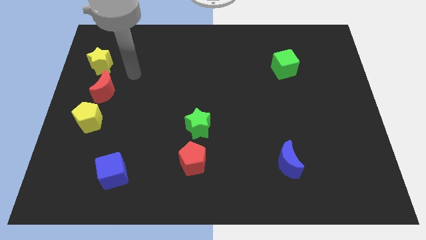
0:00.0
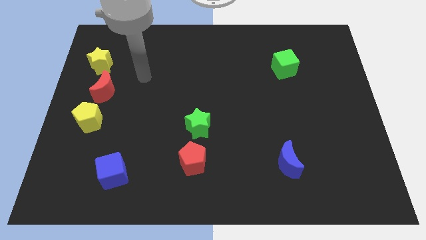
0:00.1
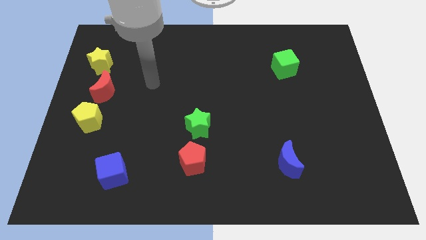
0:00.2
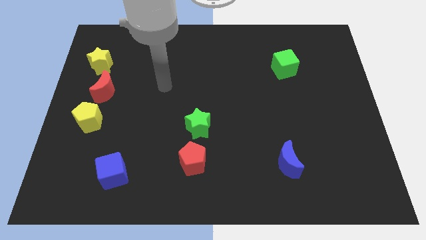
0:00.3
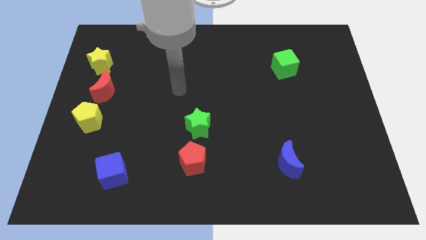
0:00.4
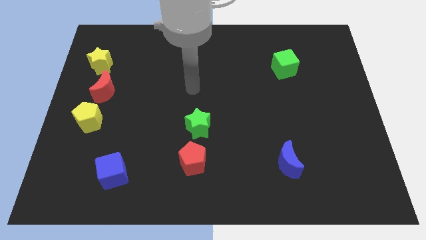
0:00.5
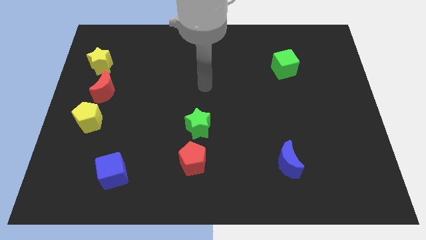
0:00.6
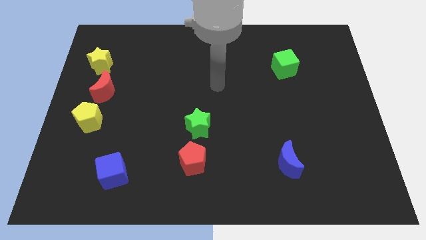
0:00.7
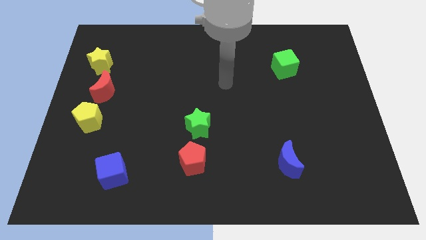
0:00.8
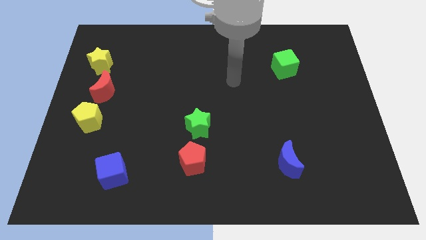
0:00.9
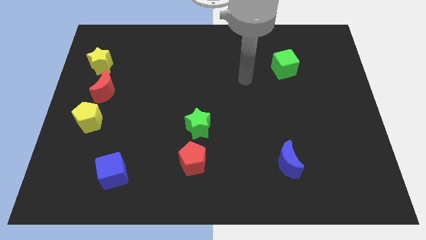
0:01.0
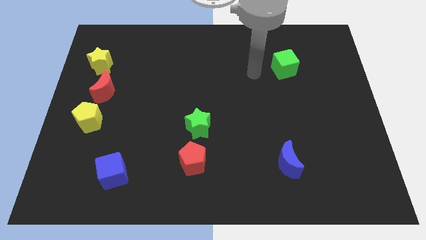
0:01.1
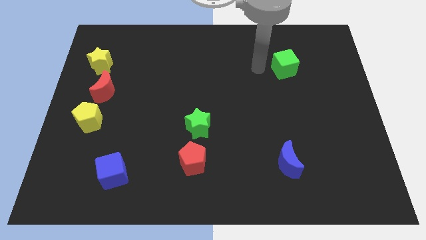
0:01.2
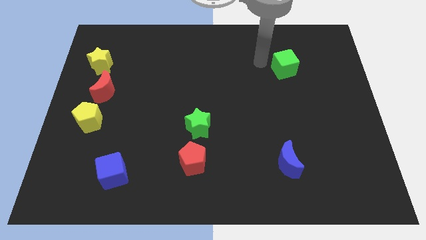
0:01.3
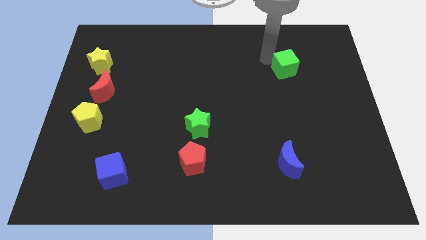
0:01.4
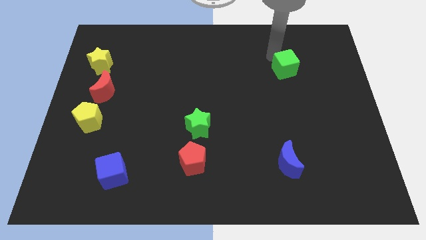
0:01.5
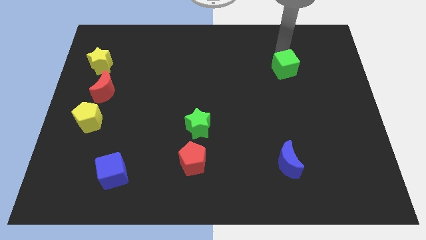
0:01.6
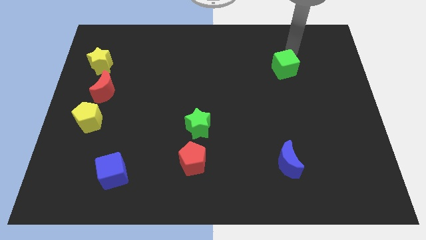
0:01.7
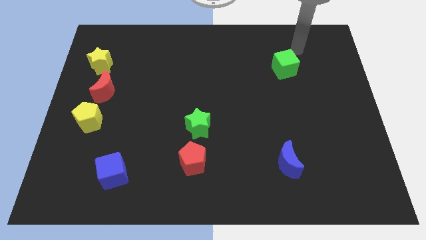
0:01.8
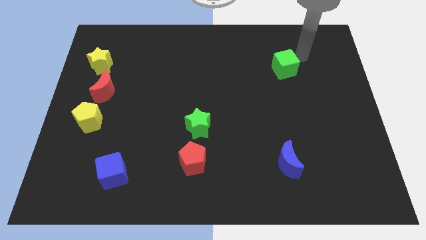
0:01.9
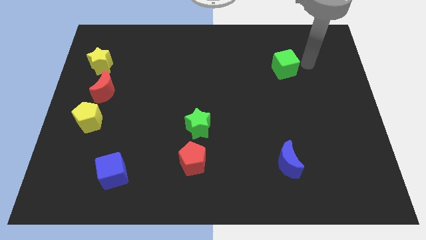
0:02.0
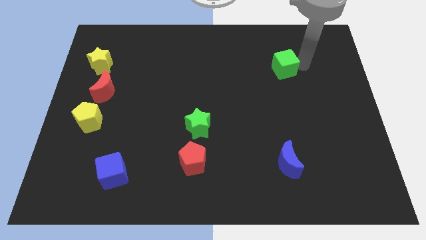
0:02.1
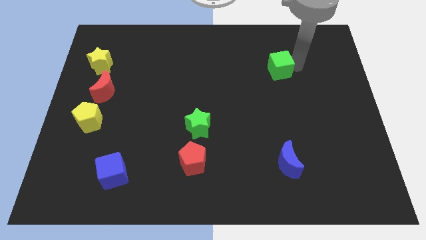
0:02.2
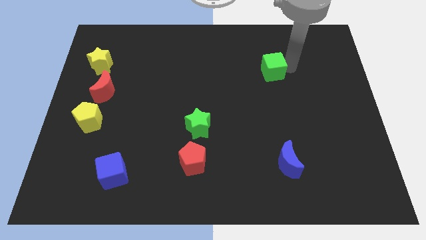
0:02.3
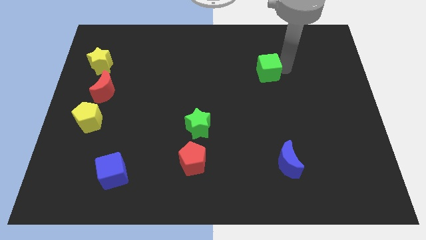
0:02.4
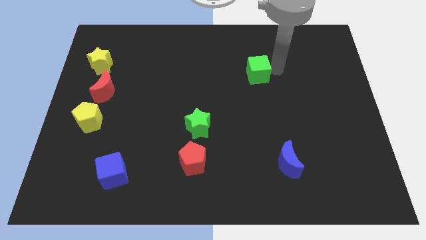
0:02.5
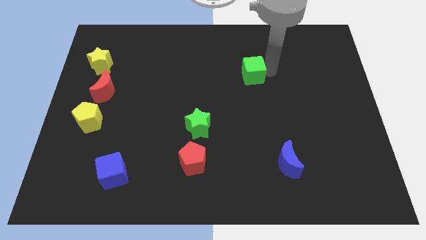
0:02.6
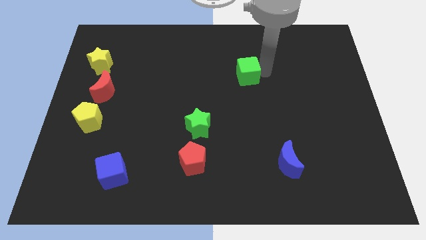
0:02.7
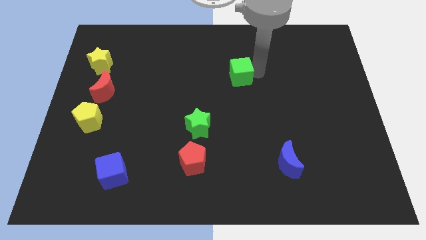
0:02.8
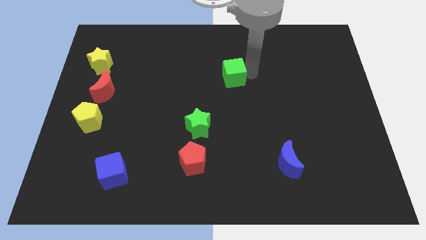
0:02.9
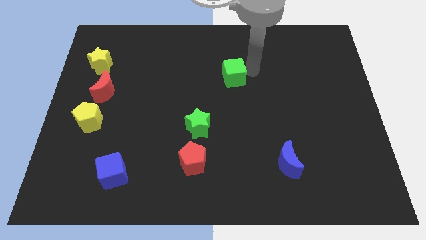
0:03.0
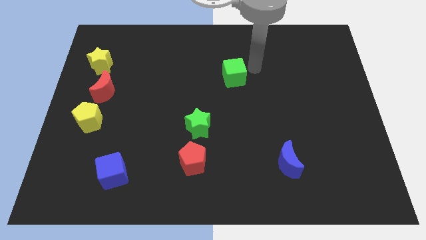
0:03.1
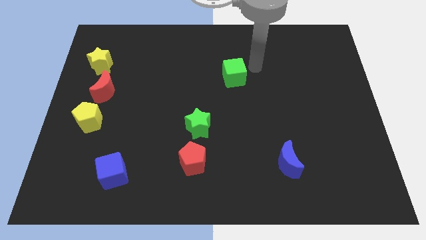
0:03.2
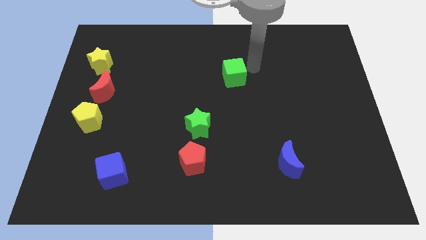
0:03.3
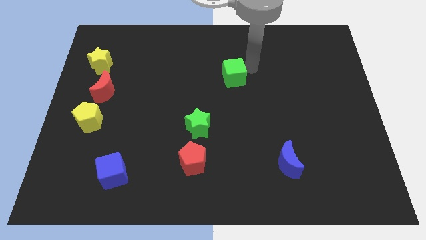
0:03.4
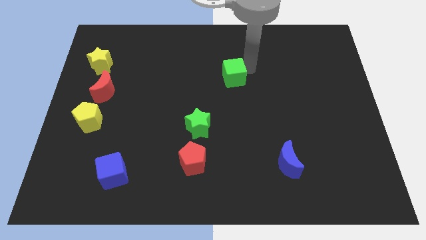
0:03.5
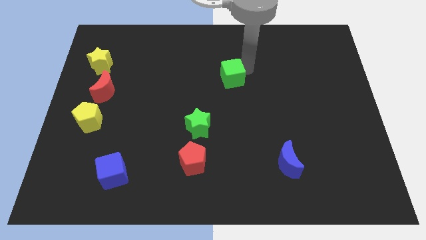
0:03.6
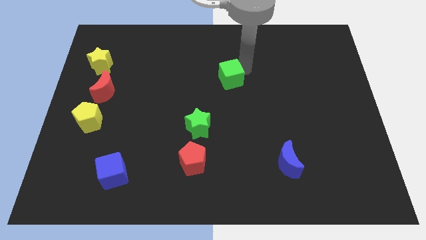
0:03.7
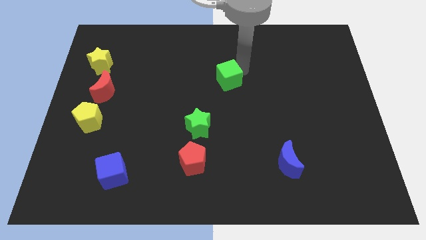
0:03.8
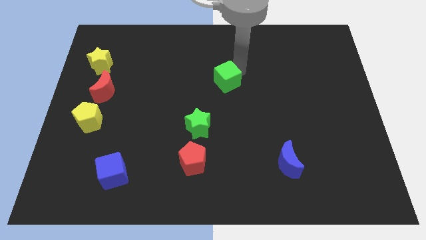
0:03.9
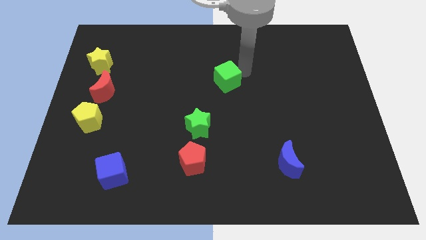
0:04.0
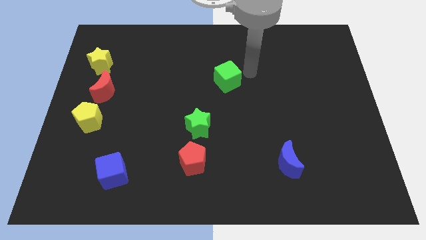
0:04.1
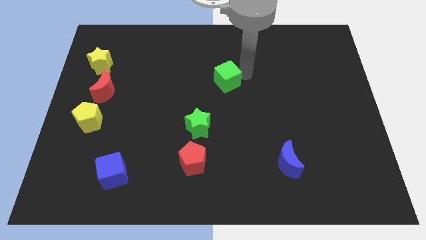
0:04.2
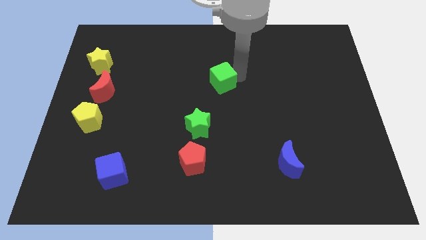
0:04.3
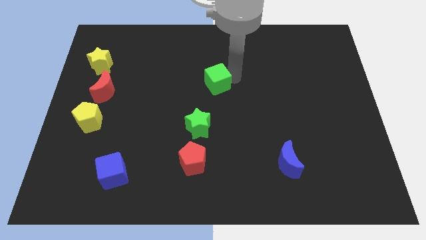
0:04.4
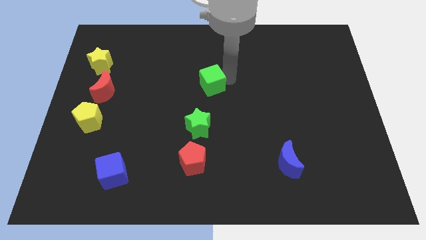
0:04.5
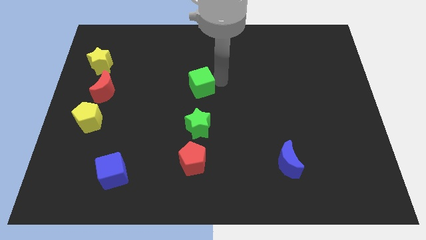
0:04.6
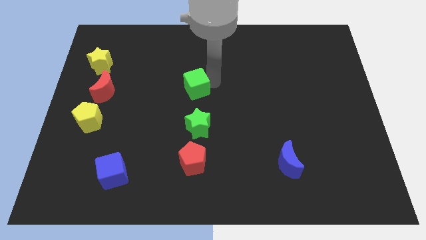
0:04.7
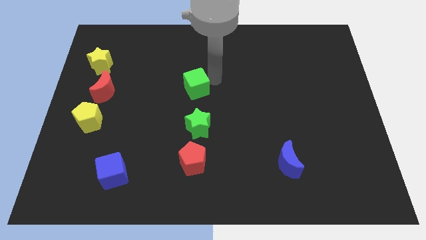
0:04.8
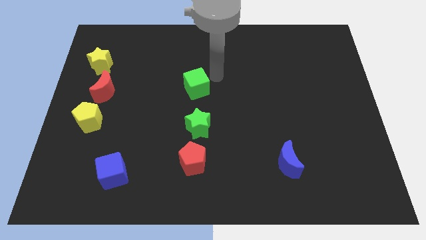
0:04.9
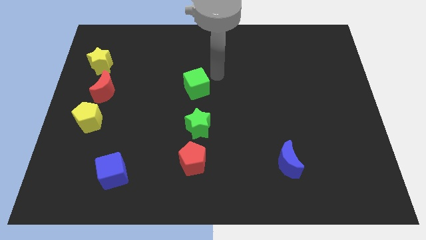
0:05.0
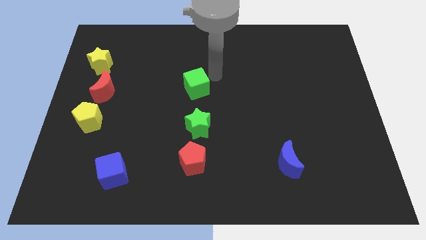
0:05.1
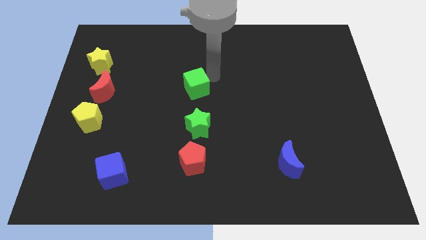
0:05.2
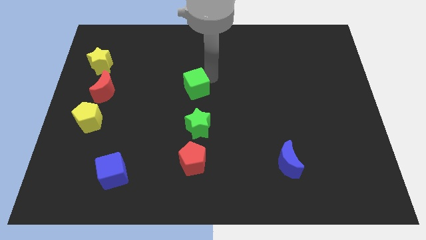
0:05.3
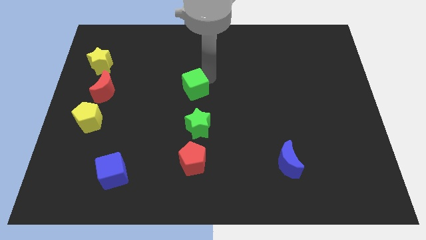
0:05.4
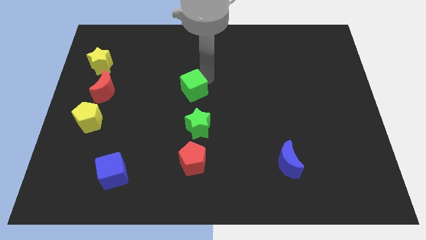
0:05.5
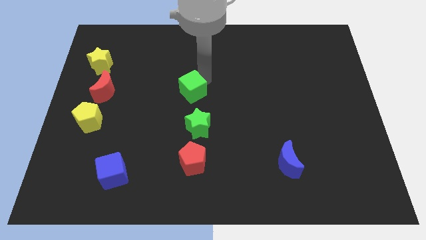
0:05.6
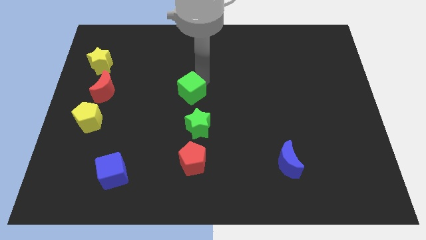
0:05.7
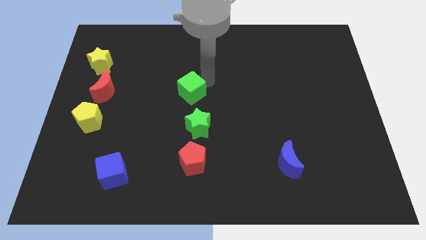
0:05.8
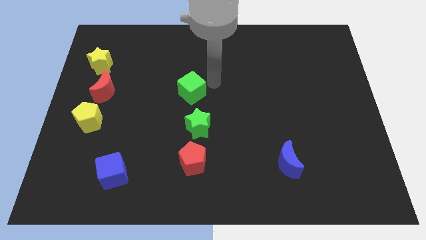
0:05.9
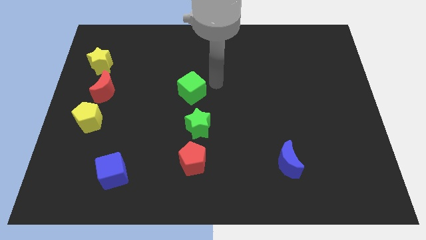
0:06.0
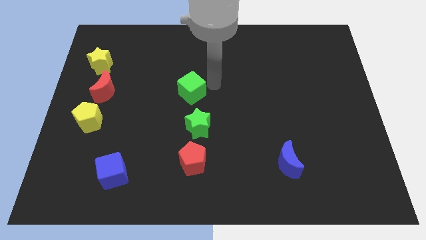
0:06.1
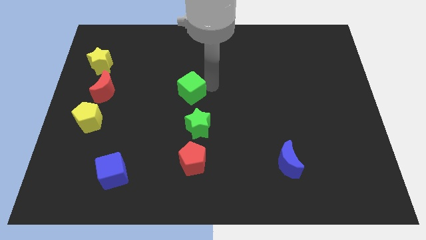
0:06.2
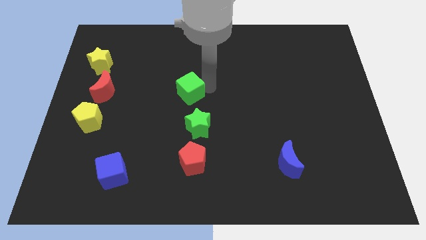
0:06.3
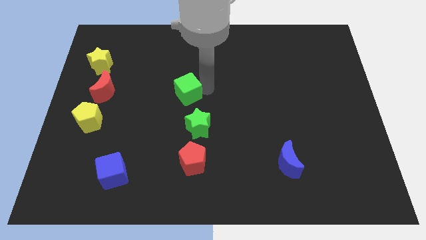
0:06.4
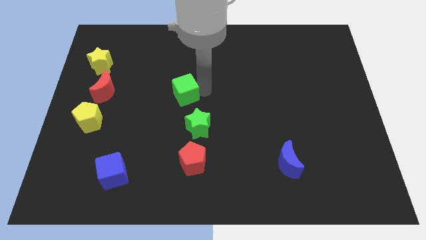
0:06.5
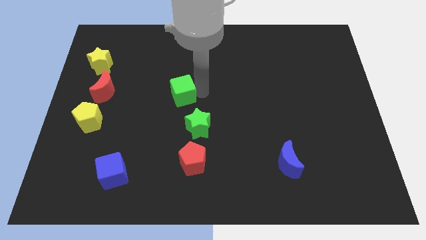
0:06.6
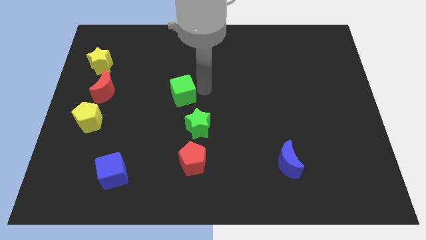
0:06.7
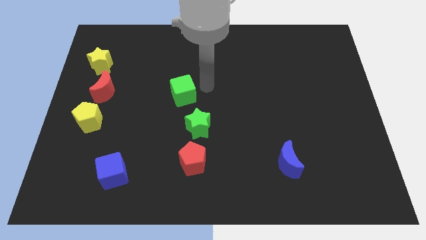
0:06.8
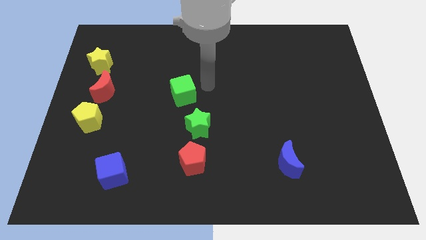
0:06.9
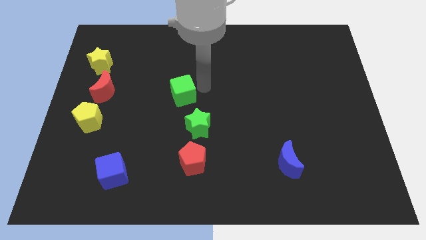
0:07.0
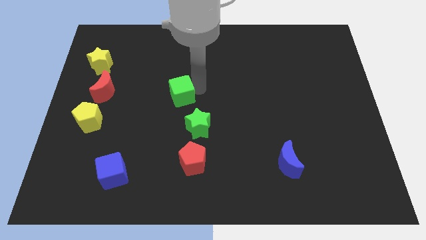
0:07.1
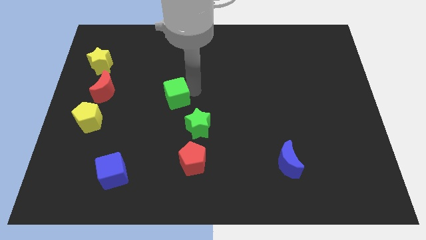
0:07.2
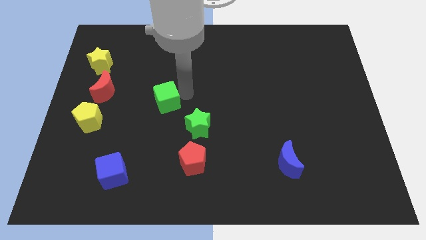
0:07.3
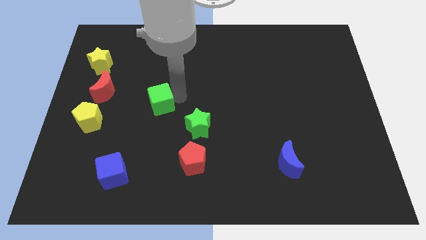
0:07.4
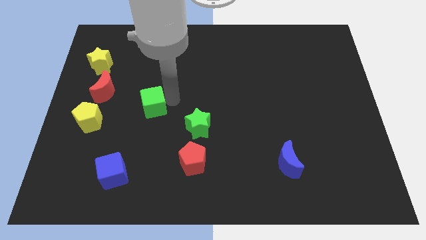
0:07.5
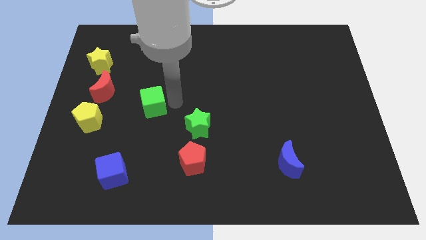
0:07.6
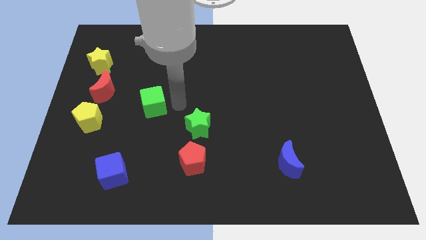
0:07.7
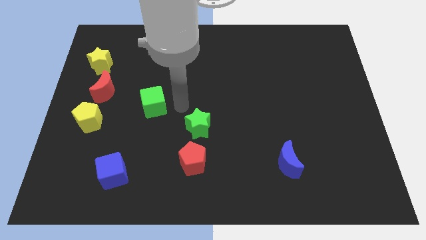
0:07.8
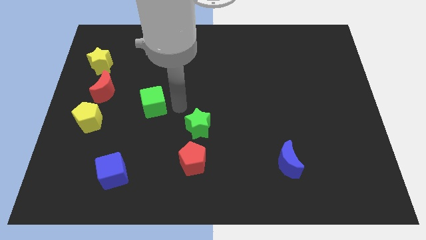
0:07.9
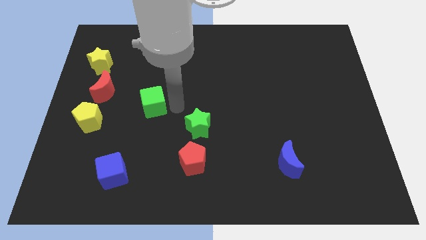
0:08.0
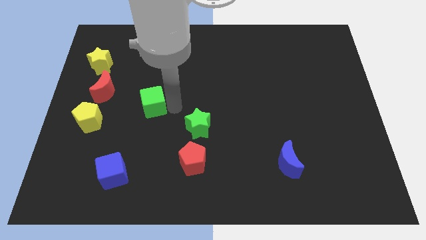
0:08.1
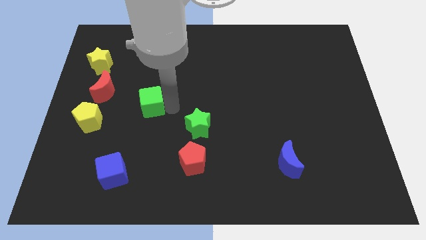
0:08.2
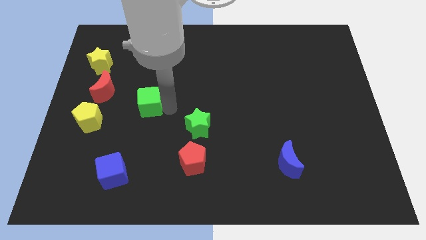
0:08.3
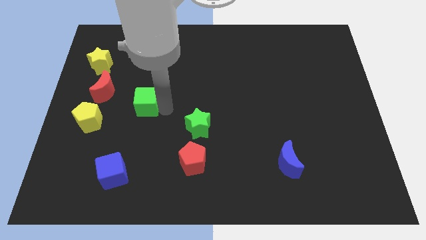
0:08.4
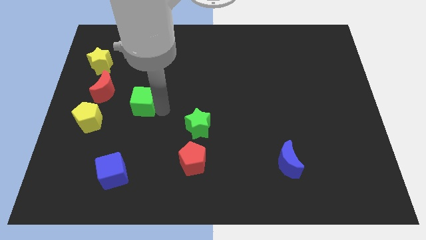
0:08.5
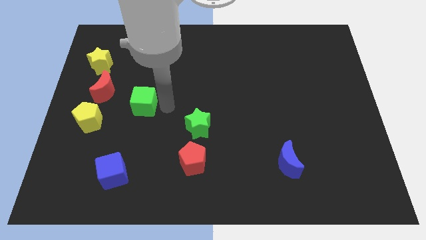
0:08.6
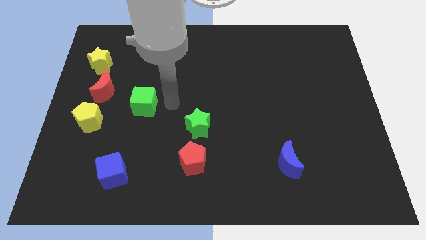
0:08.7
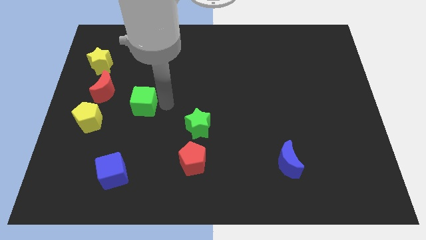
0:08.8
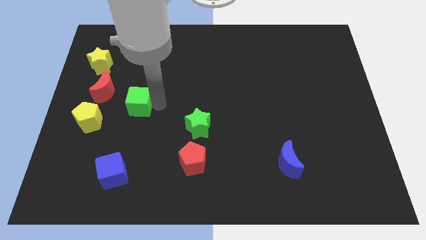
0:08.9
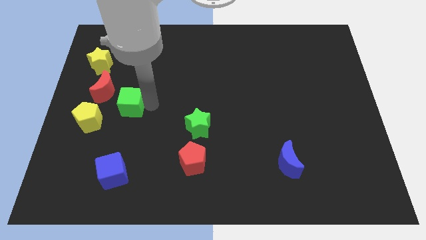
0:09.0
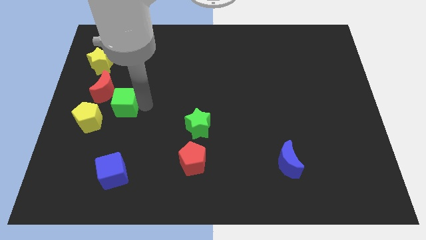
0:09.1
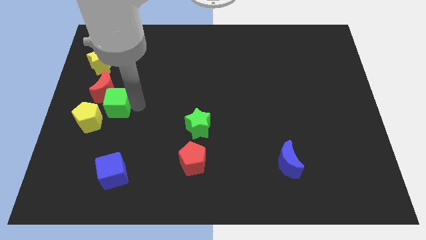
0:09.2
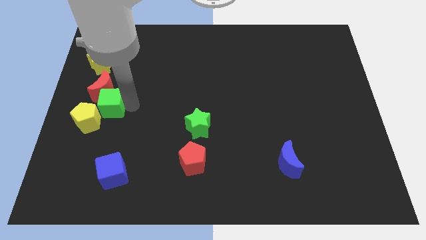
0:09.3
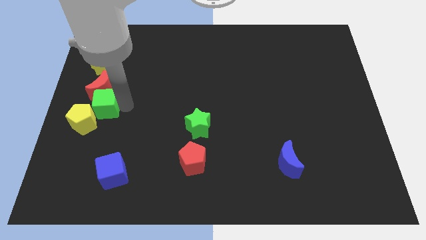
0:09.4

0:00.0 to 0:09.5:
slide the green cube to the left side of the board
